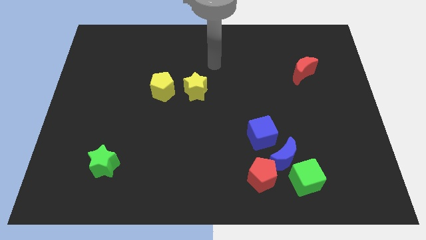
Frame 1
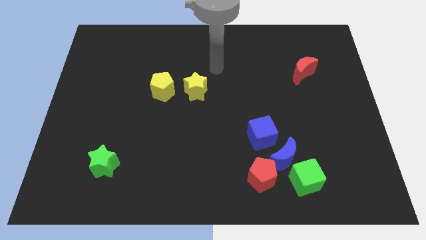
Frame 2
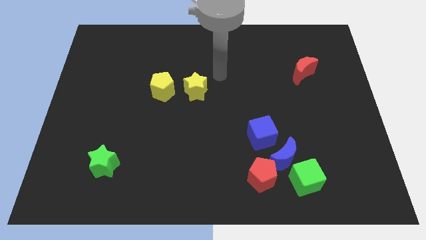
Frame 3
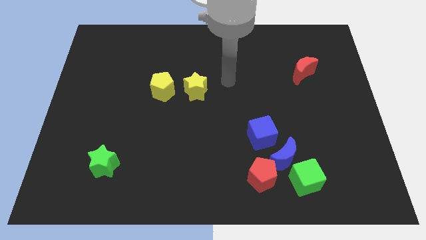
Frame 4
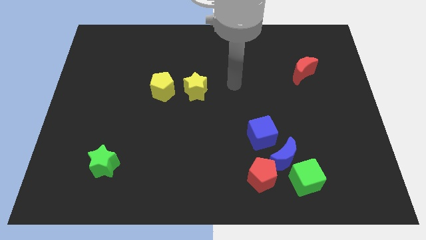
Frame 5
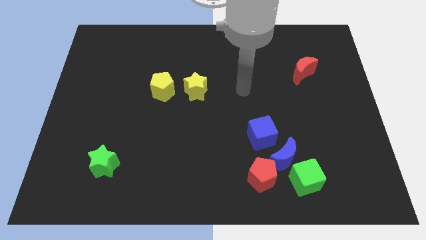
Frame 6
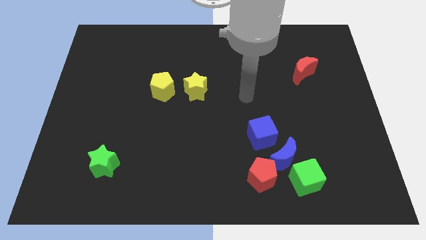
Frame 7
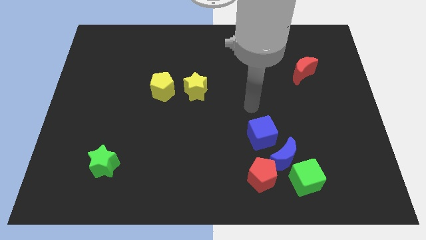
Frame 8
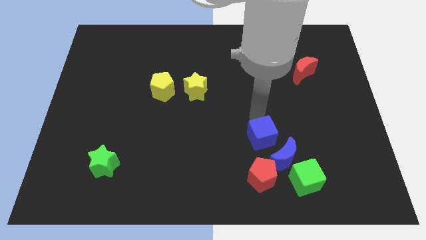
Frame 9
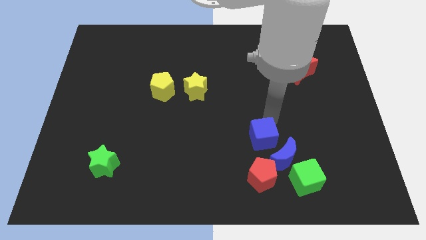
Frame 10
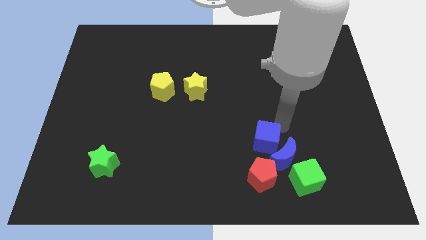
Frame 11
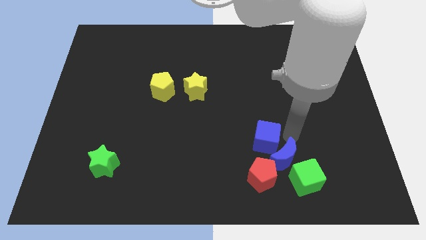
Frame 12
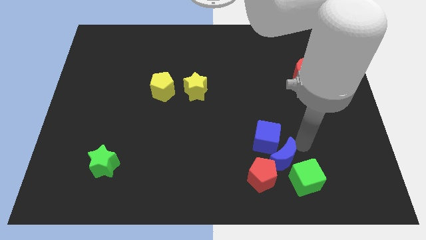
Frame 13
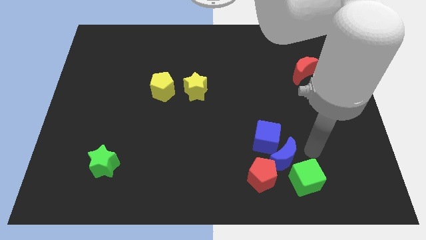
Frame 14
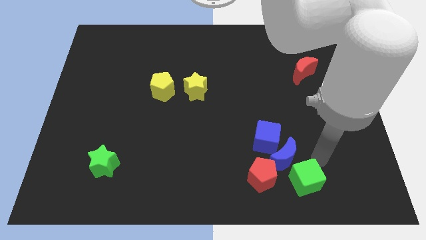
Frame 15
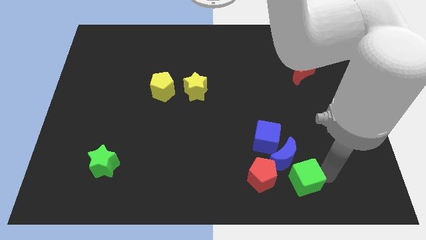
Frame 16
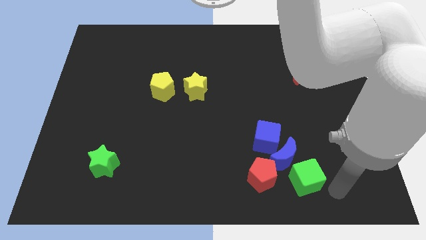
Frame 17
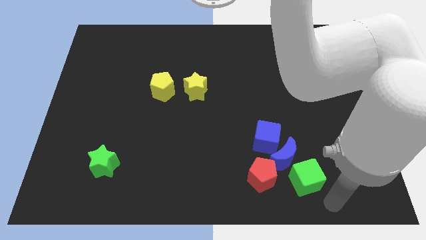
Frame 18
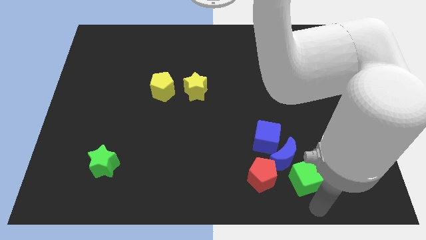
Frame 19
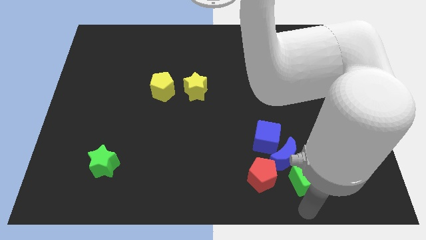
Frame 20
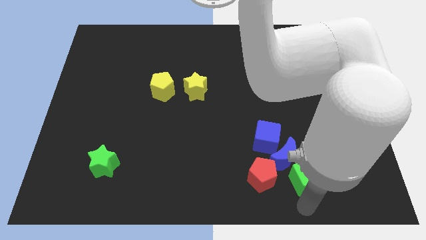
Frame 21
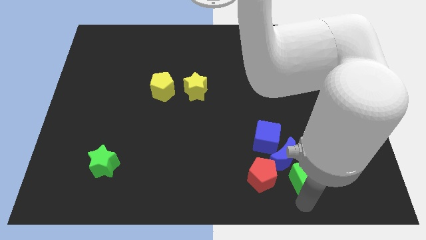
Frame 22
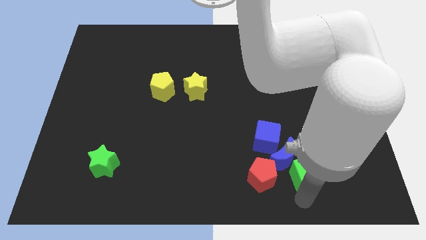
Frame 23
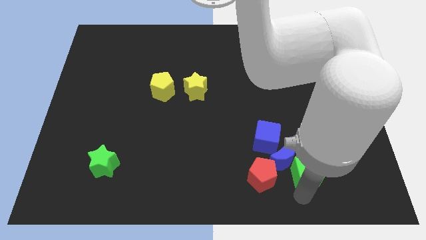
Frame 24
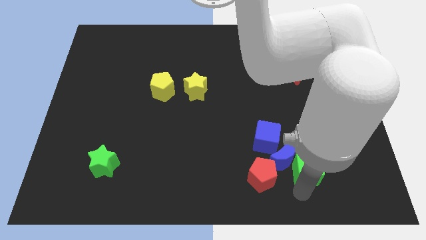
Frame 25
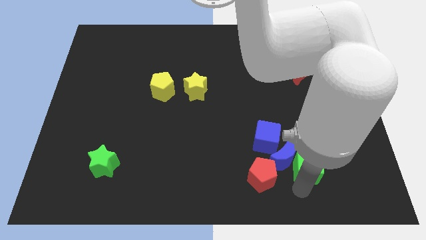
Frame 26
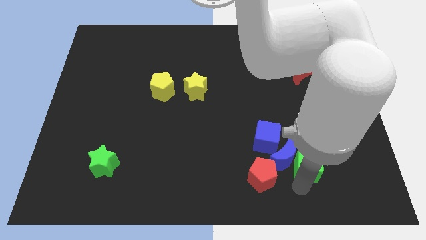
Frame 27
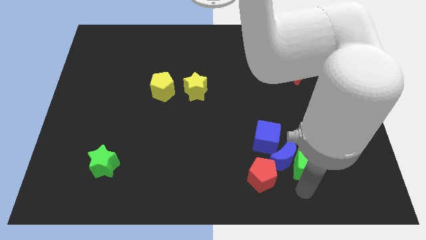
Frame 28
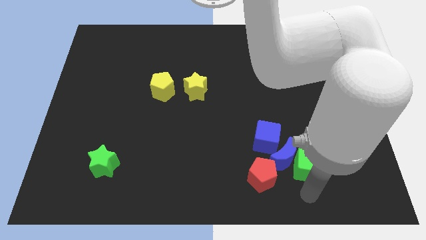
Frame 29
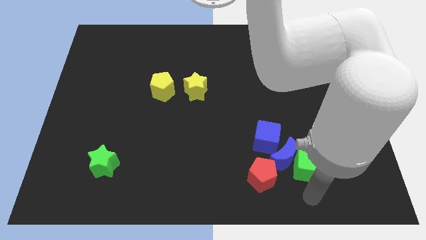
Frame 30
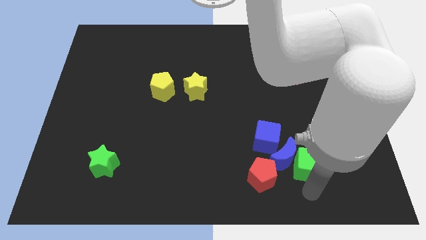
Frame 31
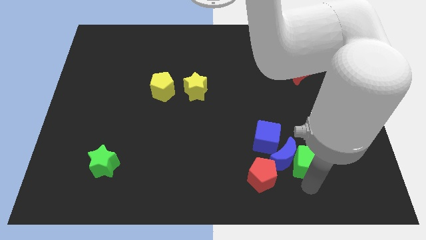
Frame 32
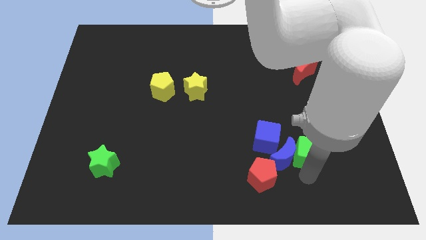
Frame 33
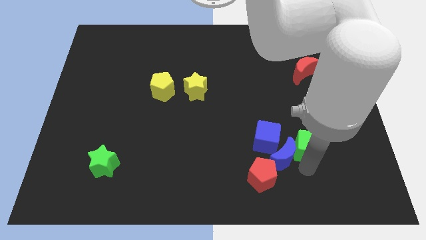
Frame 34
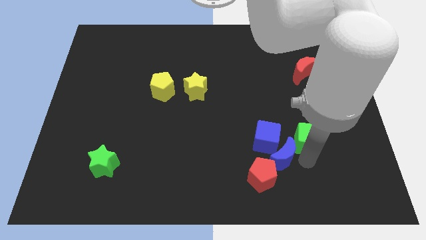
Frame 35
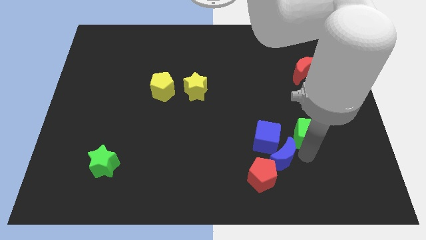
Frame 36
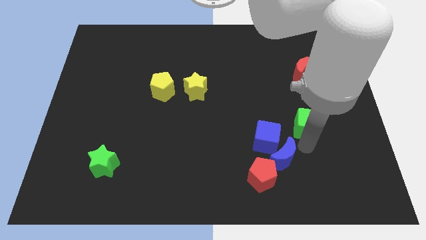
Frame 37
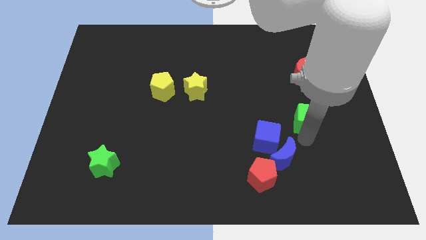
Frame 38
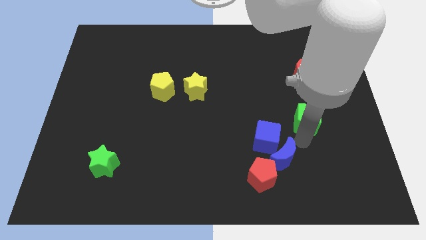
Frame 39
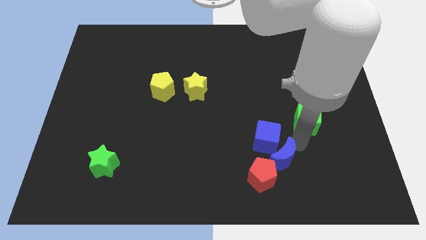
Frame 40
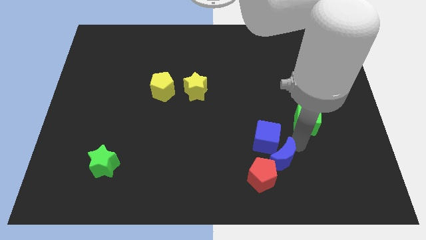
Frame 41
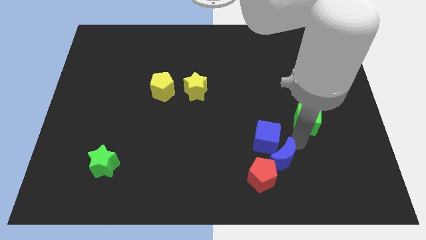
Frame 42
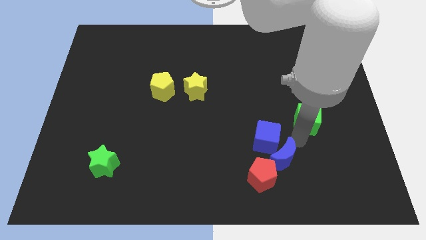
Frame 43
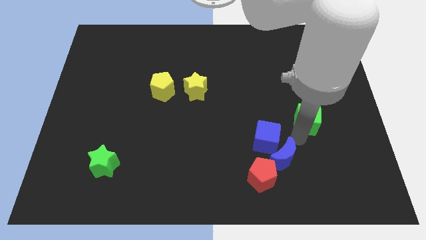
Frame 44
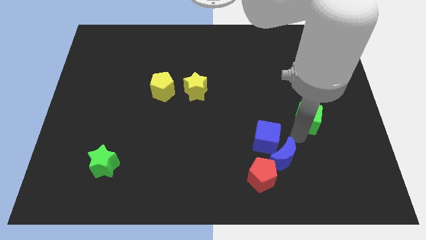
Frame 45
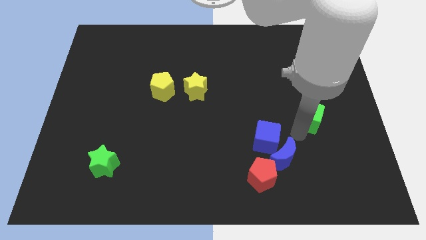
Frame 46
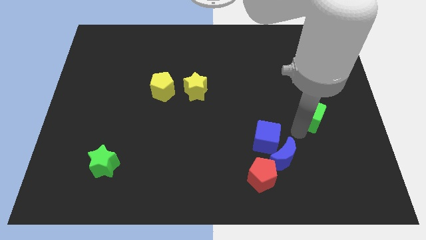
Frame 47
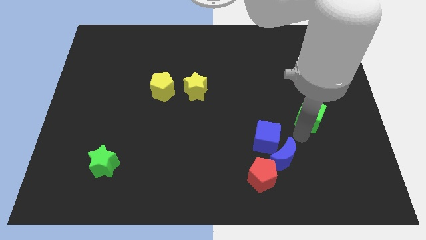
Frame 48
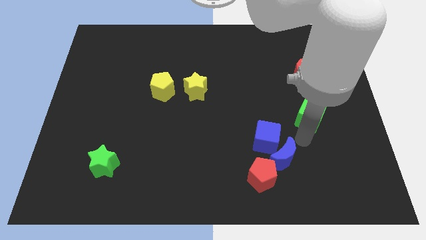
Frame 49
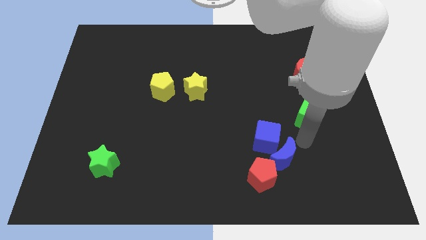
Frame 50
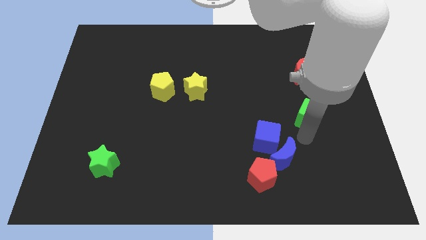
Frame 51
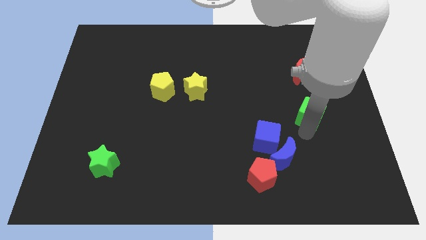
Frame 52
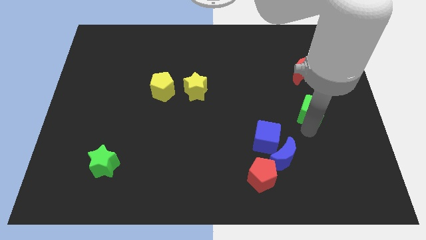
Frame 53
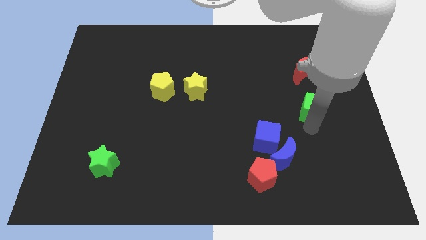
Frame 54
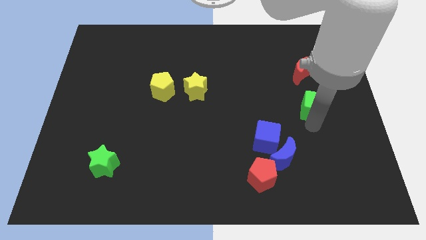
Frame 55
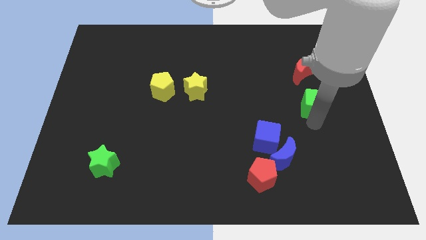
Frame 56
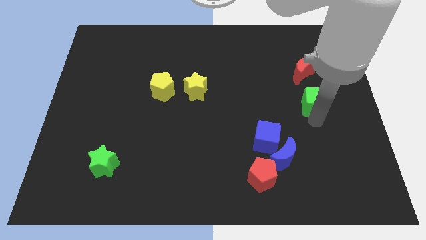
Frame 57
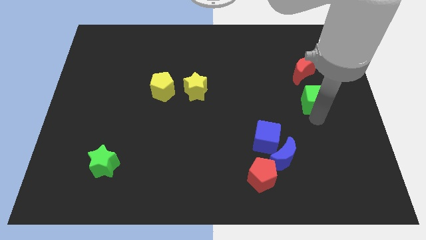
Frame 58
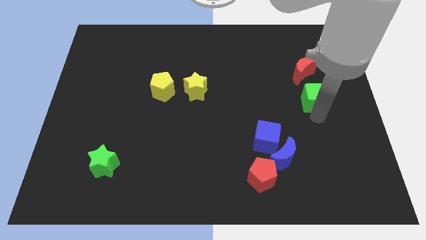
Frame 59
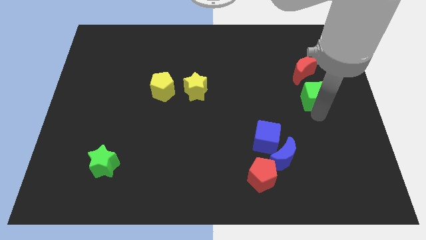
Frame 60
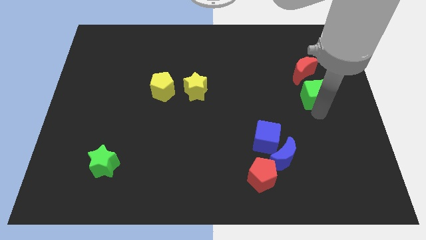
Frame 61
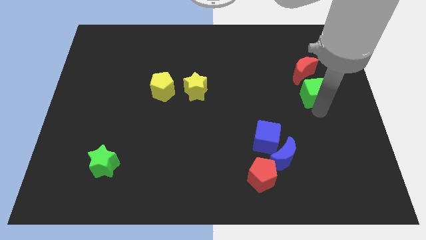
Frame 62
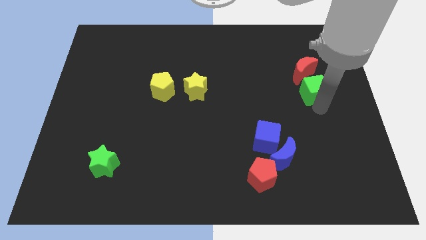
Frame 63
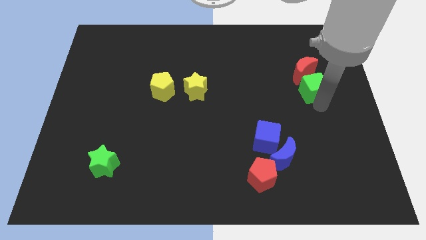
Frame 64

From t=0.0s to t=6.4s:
slide the green cube to the red moon

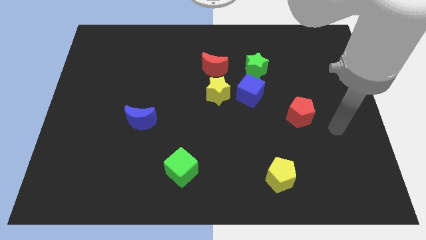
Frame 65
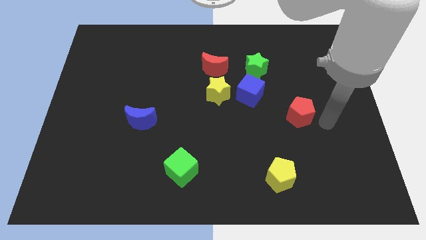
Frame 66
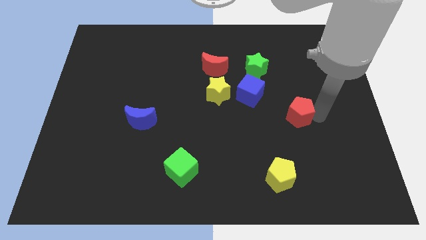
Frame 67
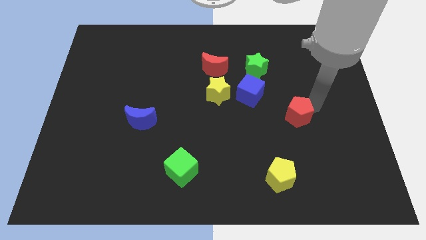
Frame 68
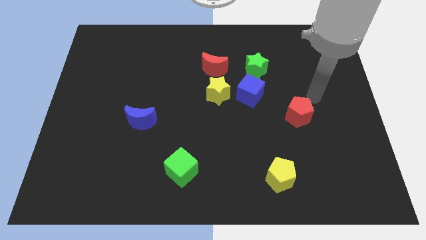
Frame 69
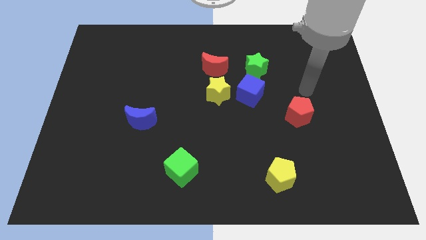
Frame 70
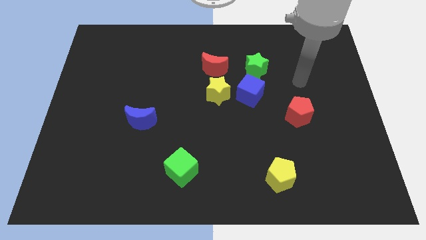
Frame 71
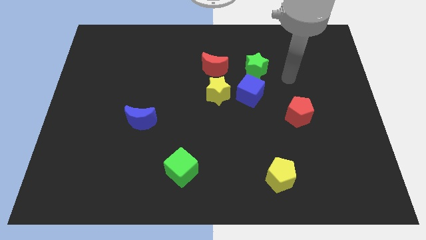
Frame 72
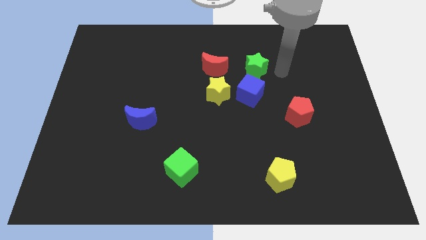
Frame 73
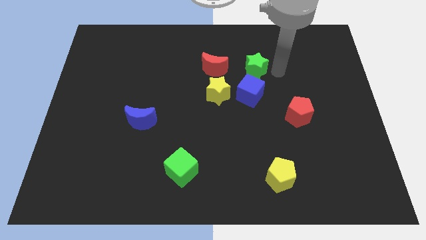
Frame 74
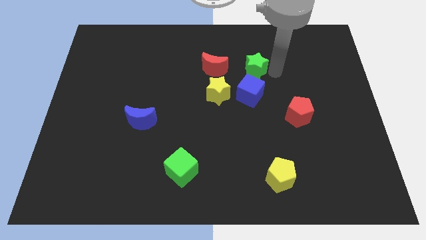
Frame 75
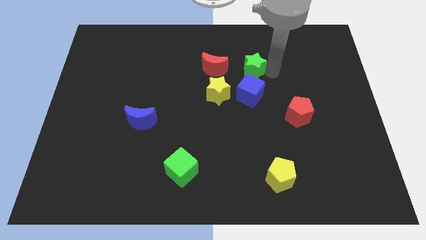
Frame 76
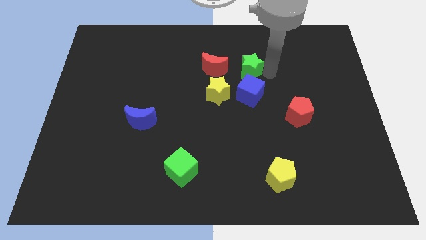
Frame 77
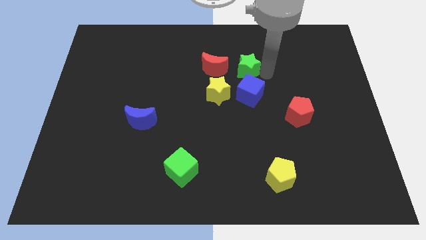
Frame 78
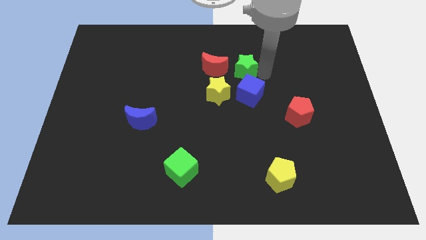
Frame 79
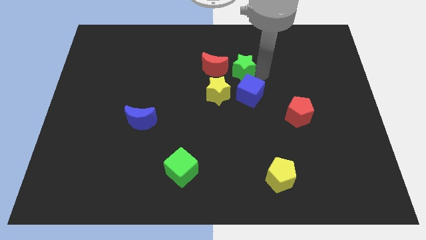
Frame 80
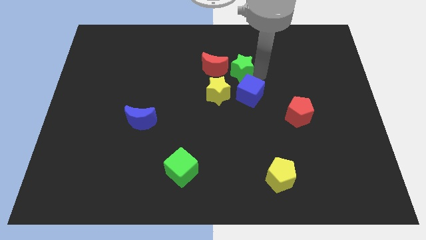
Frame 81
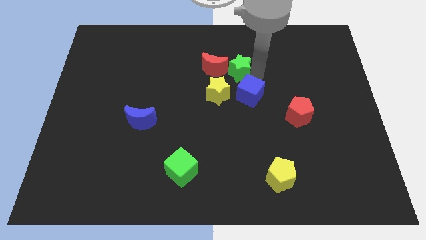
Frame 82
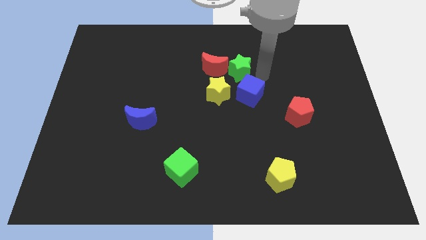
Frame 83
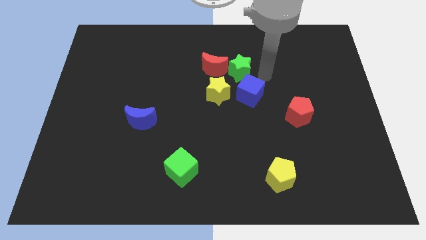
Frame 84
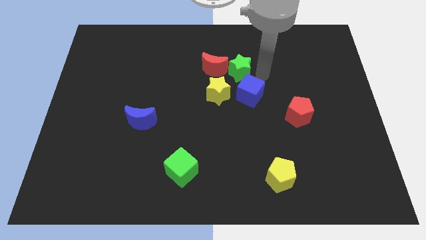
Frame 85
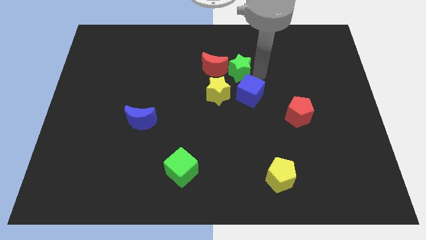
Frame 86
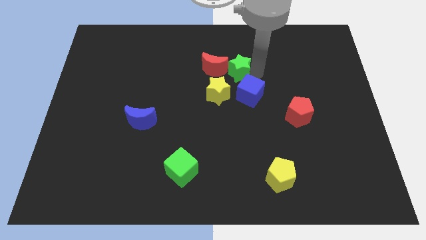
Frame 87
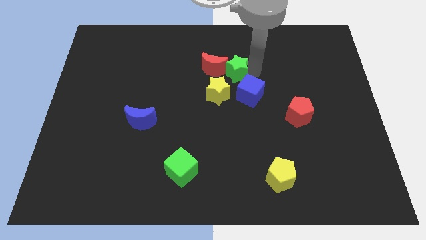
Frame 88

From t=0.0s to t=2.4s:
move the green star close to the red moon
